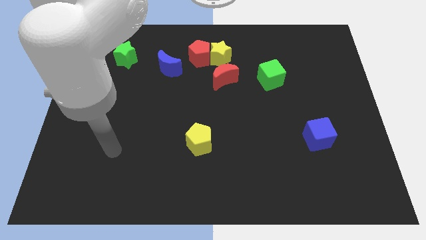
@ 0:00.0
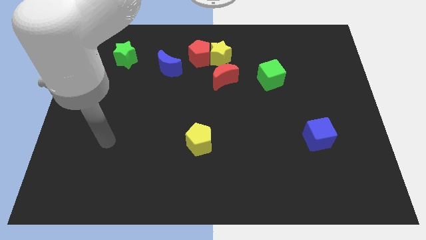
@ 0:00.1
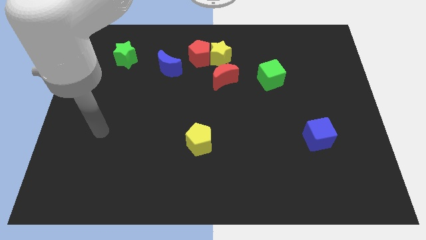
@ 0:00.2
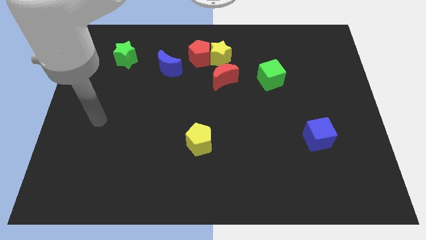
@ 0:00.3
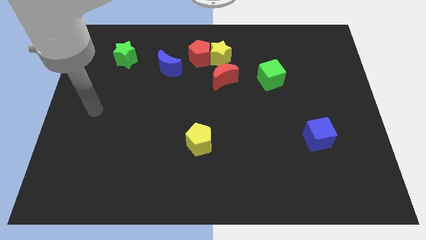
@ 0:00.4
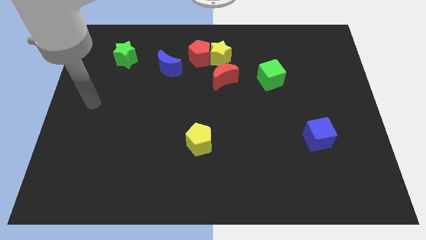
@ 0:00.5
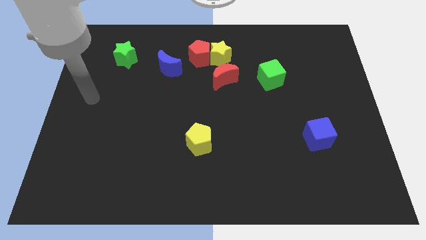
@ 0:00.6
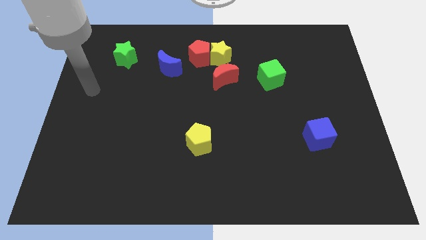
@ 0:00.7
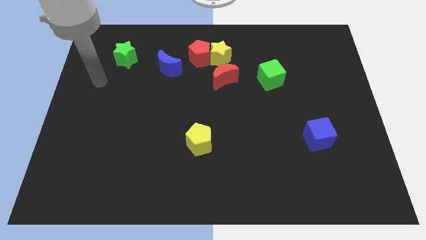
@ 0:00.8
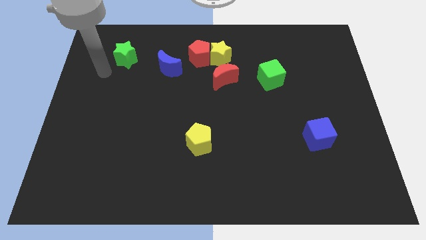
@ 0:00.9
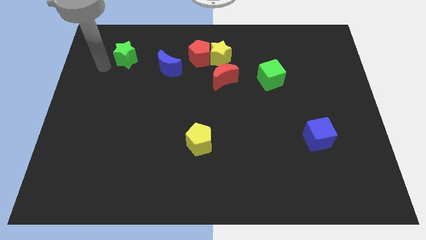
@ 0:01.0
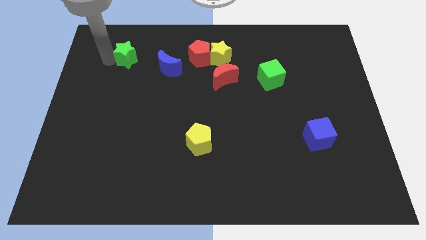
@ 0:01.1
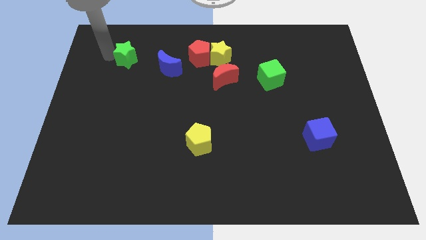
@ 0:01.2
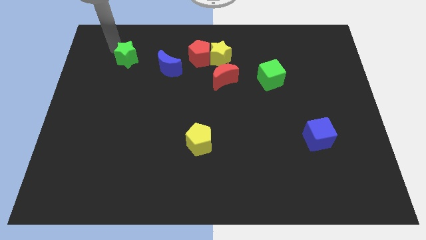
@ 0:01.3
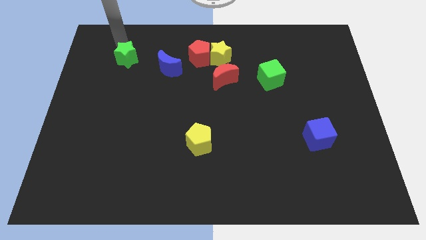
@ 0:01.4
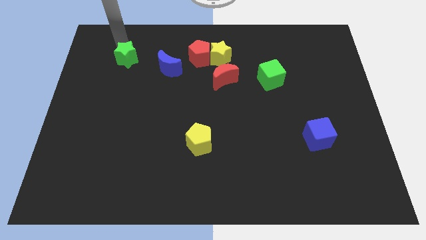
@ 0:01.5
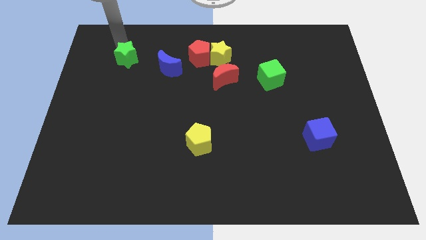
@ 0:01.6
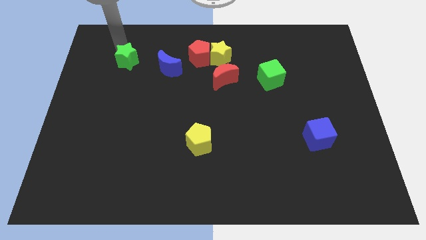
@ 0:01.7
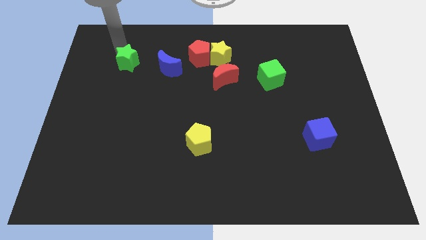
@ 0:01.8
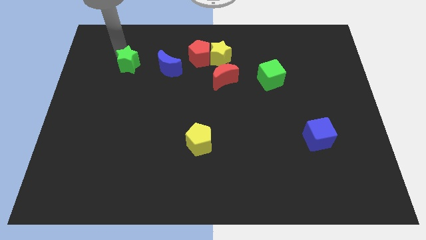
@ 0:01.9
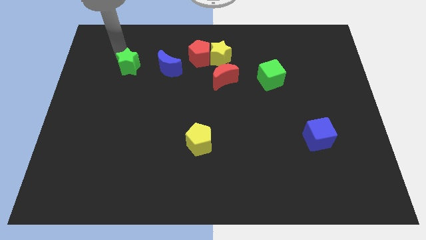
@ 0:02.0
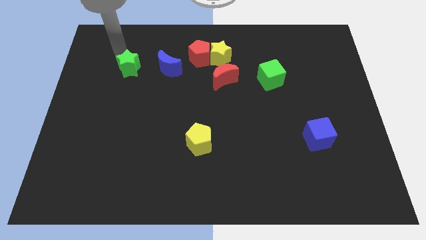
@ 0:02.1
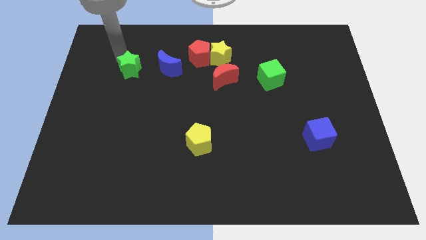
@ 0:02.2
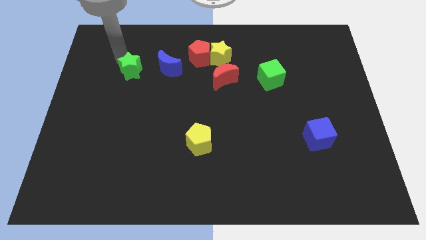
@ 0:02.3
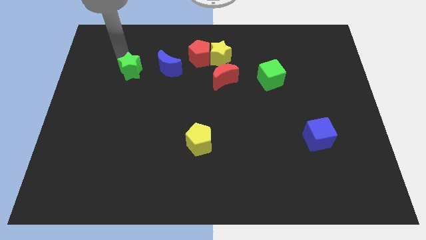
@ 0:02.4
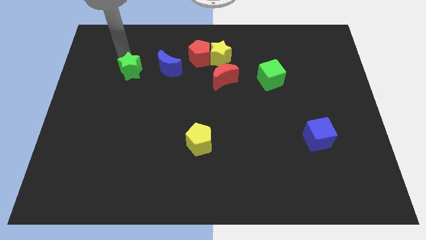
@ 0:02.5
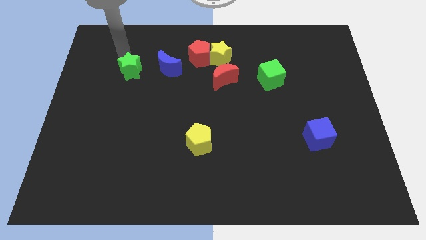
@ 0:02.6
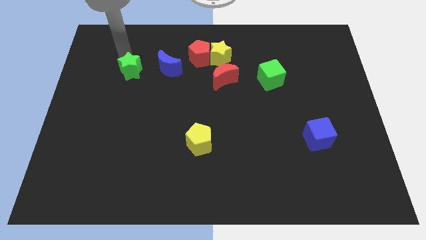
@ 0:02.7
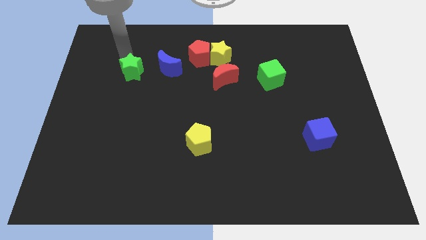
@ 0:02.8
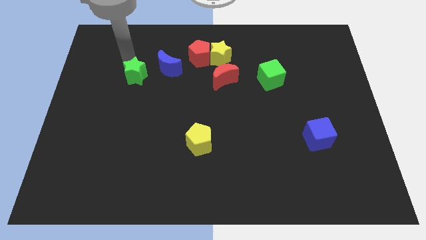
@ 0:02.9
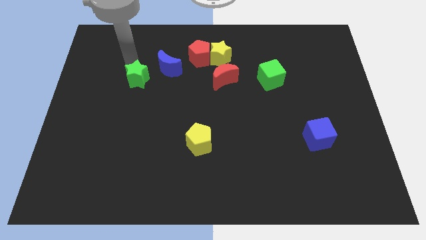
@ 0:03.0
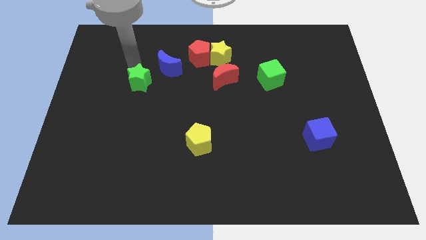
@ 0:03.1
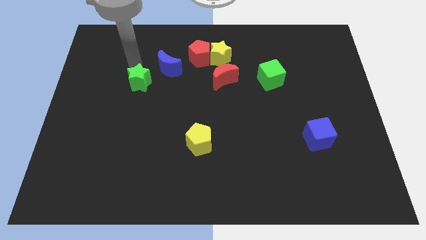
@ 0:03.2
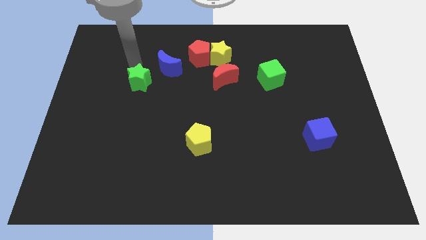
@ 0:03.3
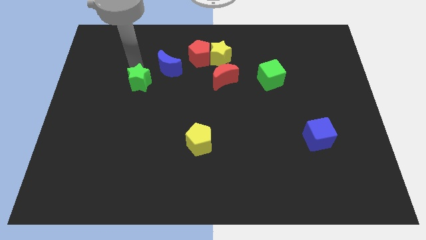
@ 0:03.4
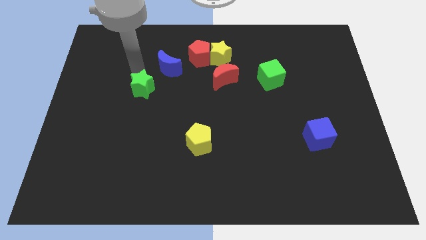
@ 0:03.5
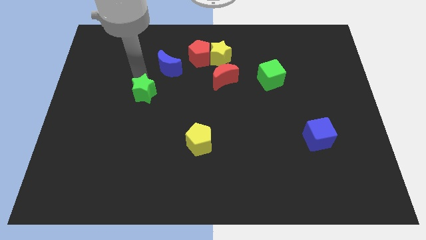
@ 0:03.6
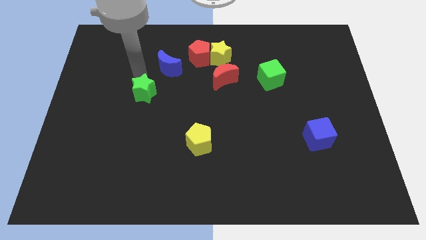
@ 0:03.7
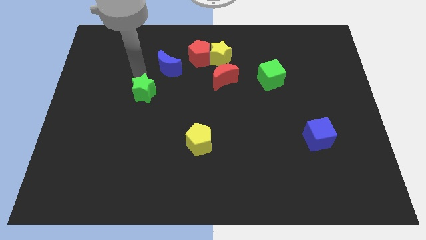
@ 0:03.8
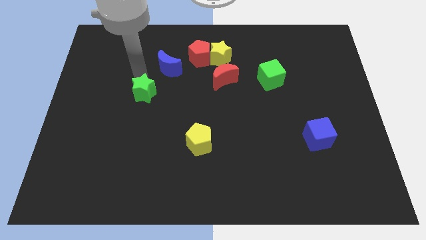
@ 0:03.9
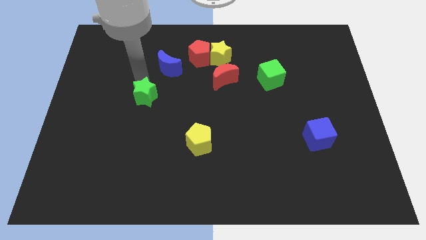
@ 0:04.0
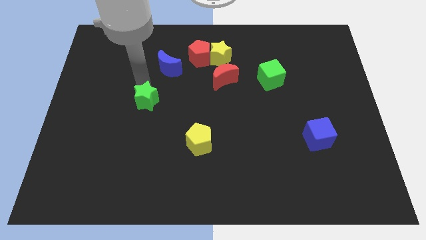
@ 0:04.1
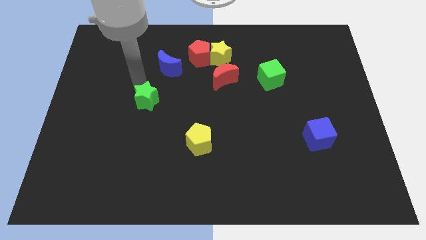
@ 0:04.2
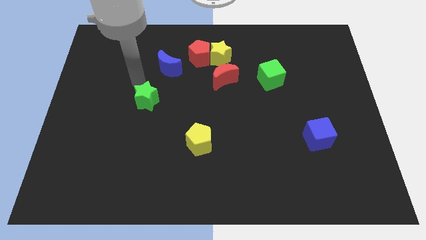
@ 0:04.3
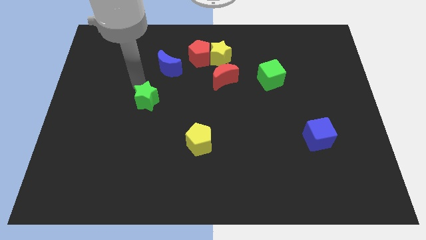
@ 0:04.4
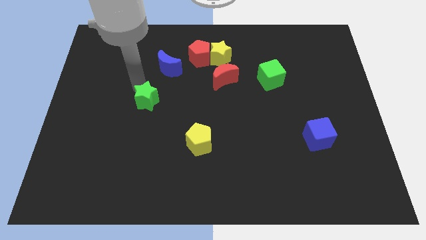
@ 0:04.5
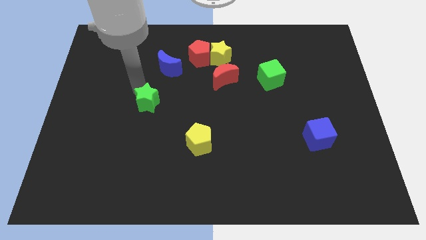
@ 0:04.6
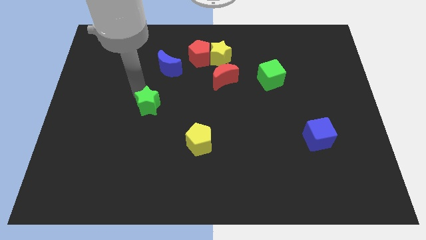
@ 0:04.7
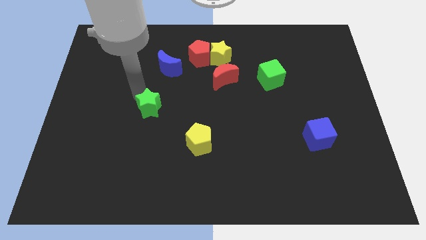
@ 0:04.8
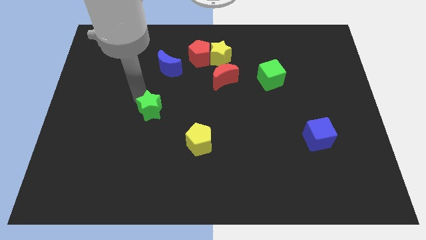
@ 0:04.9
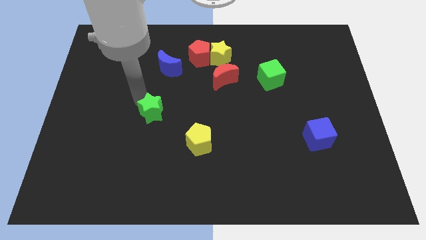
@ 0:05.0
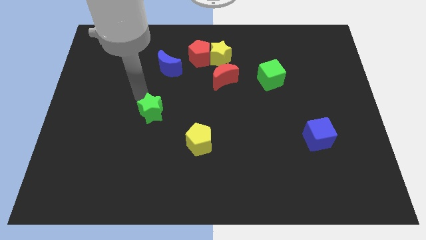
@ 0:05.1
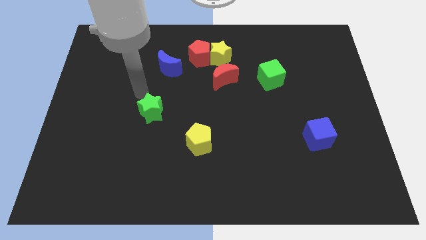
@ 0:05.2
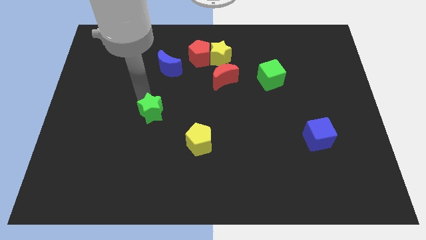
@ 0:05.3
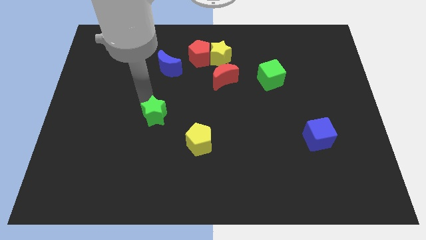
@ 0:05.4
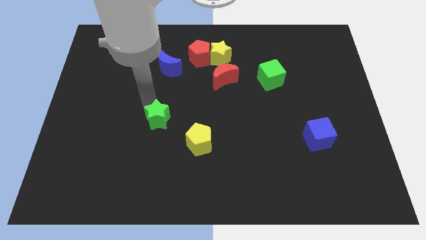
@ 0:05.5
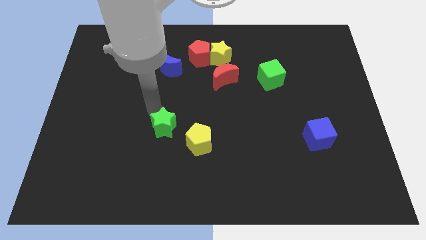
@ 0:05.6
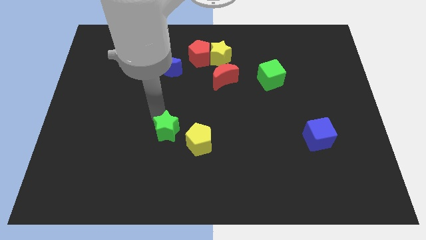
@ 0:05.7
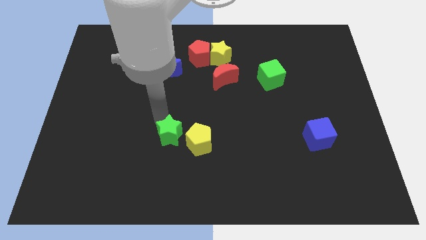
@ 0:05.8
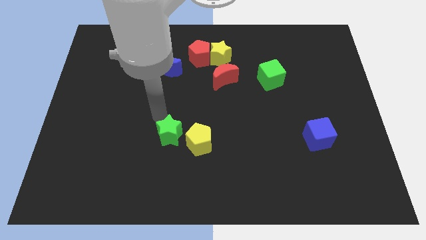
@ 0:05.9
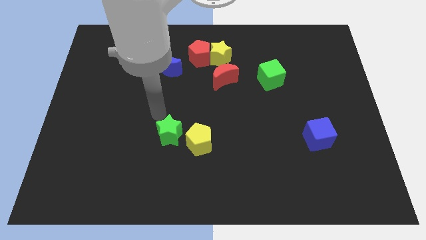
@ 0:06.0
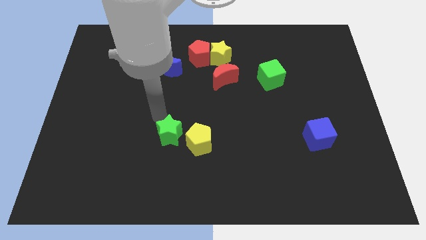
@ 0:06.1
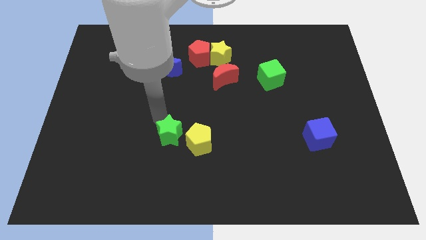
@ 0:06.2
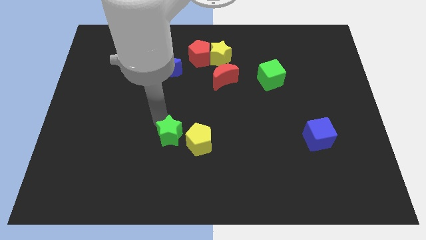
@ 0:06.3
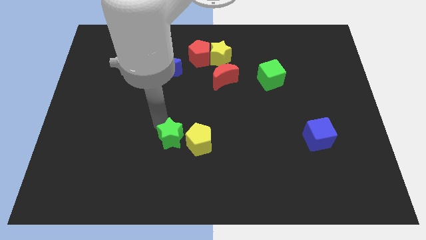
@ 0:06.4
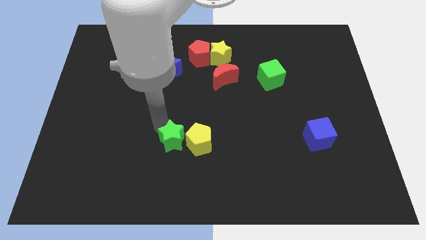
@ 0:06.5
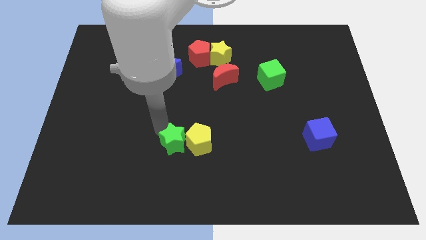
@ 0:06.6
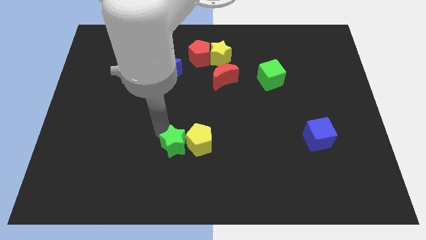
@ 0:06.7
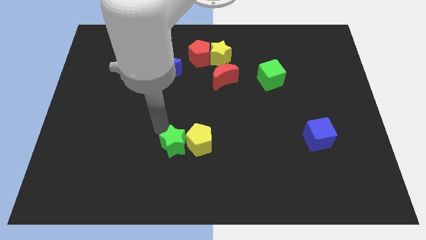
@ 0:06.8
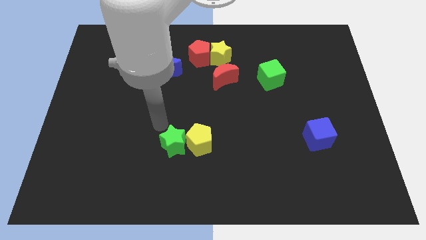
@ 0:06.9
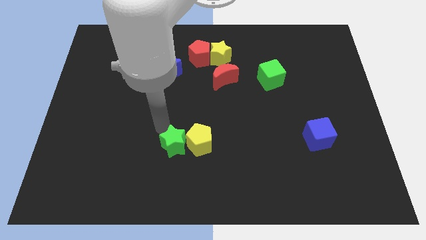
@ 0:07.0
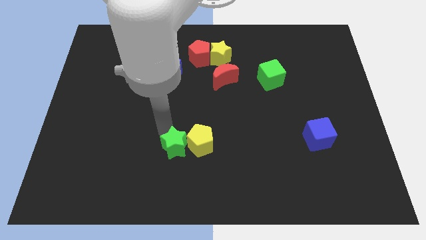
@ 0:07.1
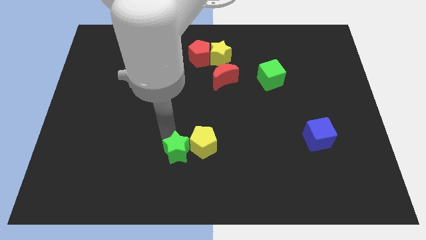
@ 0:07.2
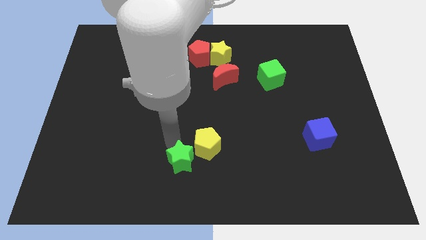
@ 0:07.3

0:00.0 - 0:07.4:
push the green star to the bottom
